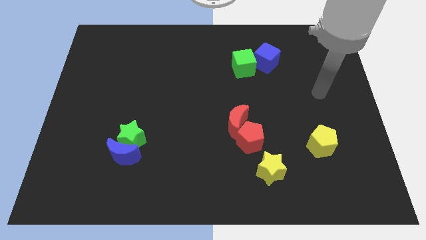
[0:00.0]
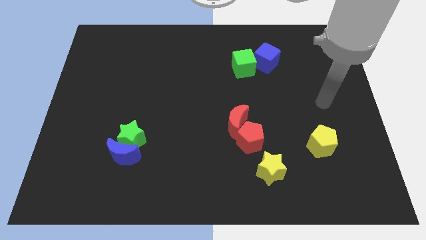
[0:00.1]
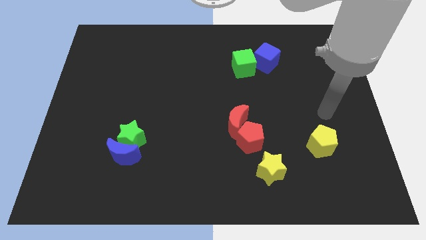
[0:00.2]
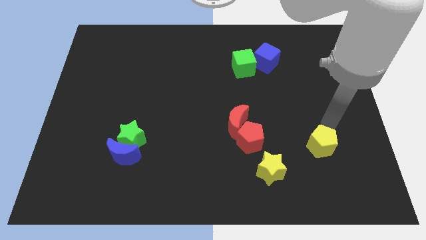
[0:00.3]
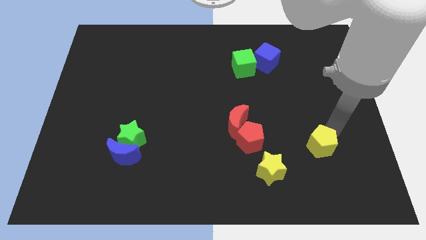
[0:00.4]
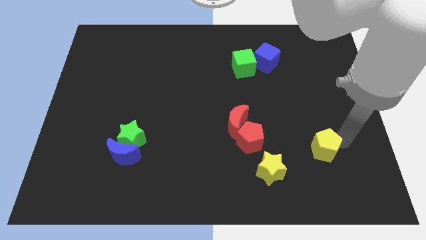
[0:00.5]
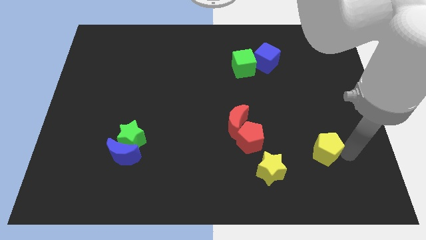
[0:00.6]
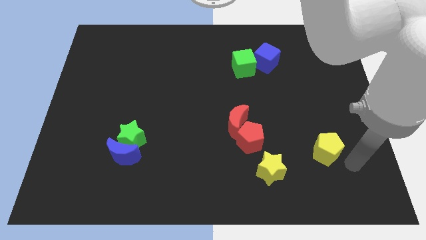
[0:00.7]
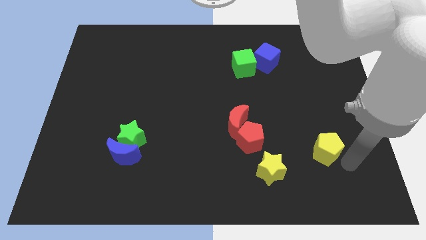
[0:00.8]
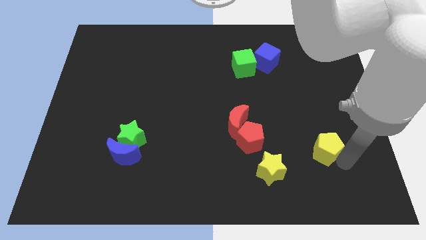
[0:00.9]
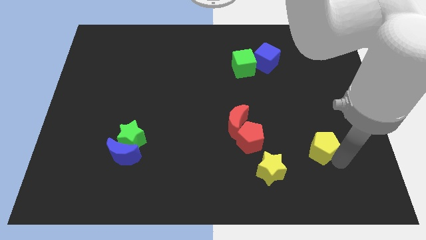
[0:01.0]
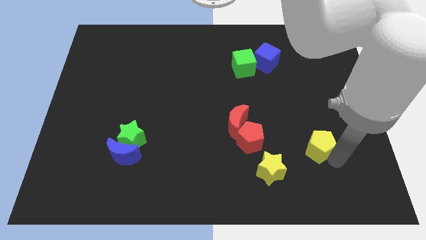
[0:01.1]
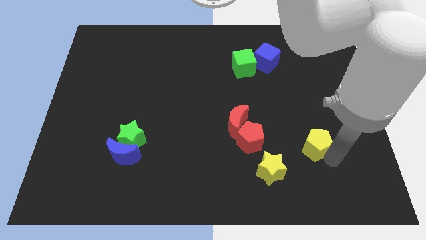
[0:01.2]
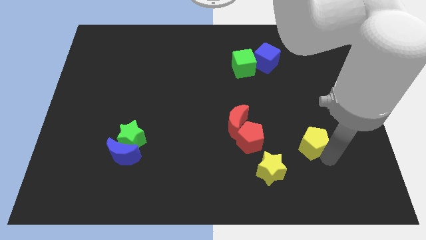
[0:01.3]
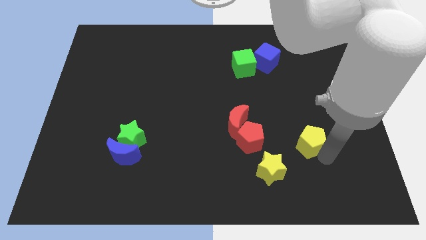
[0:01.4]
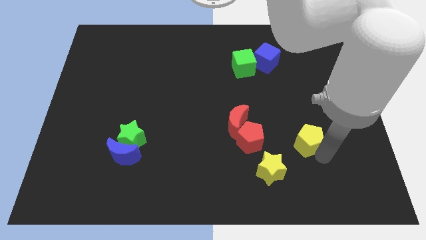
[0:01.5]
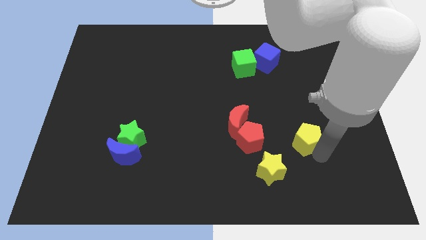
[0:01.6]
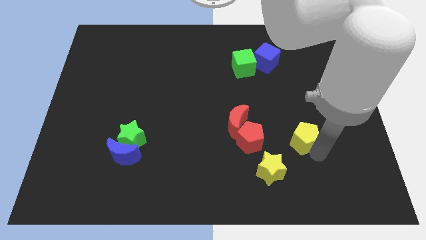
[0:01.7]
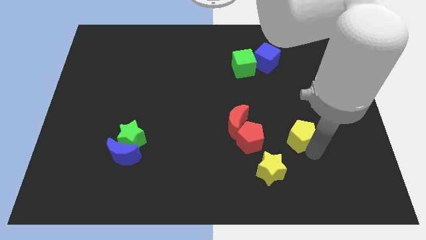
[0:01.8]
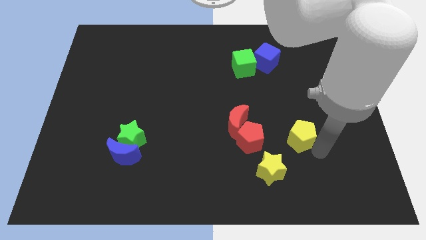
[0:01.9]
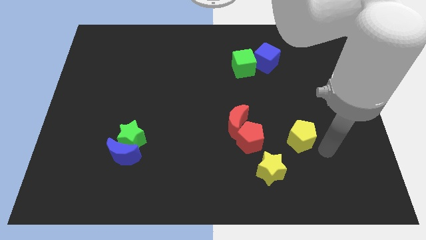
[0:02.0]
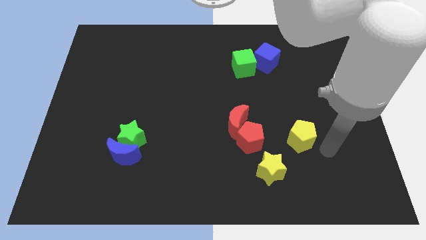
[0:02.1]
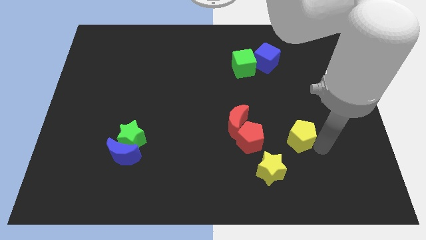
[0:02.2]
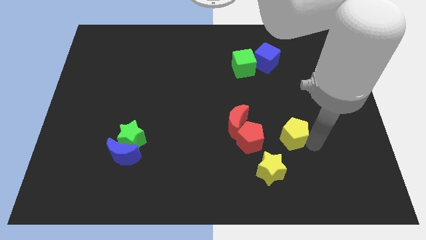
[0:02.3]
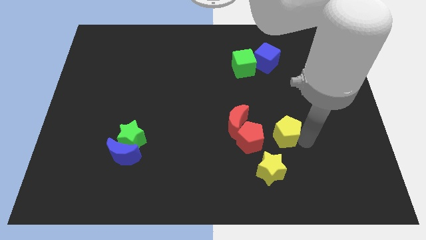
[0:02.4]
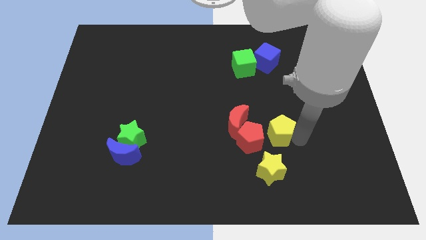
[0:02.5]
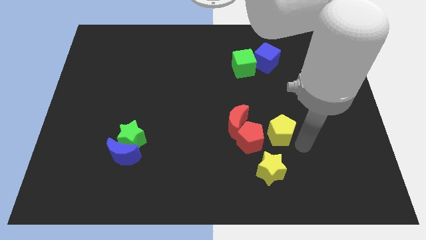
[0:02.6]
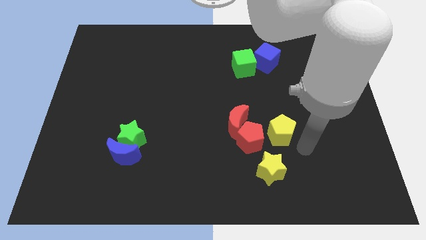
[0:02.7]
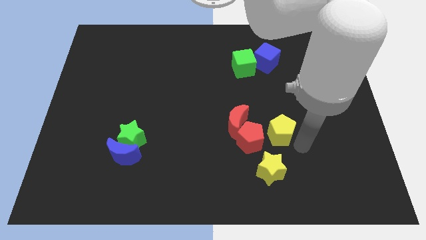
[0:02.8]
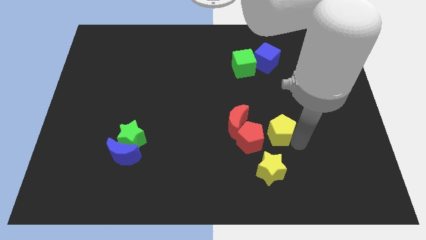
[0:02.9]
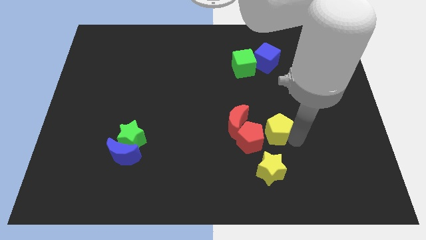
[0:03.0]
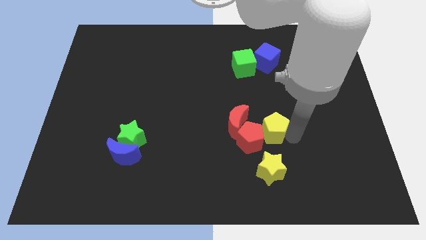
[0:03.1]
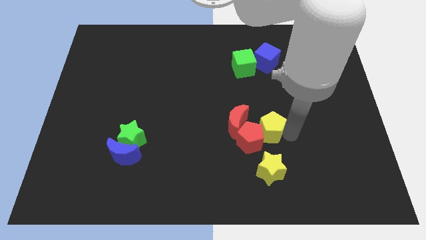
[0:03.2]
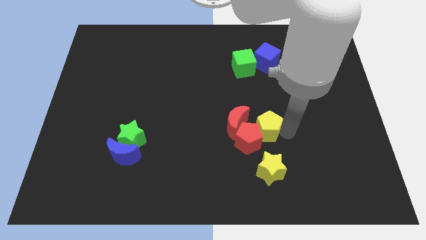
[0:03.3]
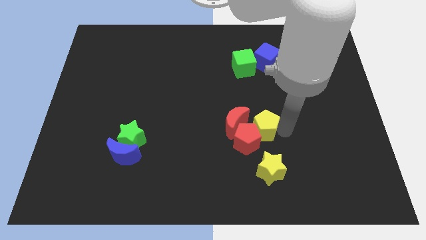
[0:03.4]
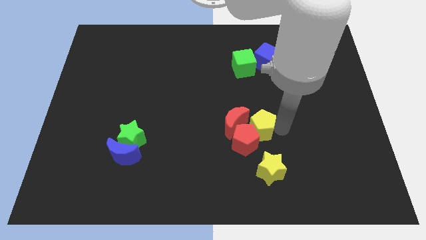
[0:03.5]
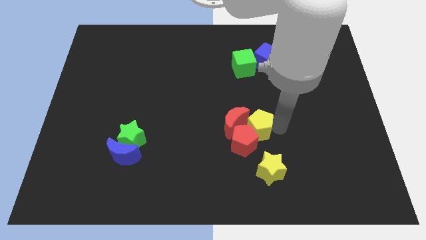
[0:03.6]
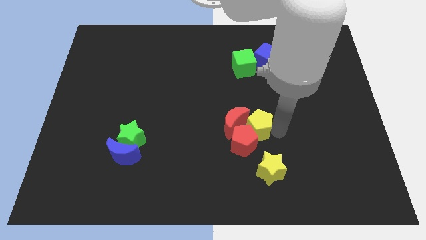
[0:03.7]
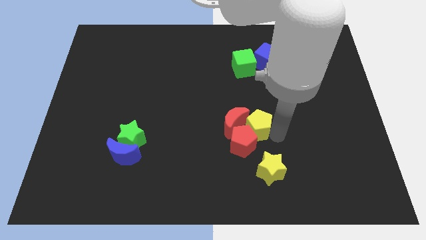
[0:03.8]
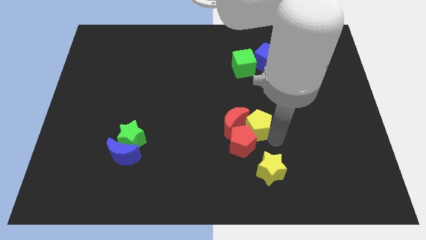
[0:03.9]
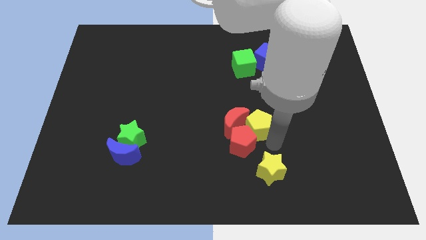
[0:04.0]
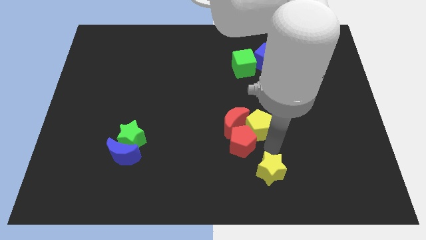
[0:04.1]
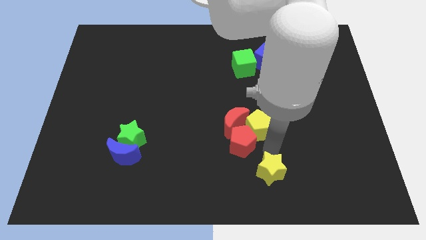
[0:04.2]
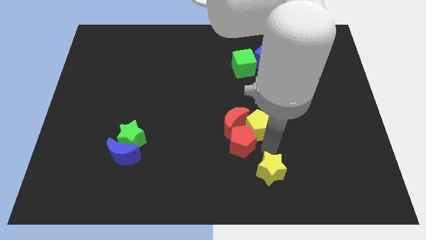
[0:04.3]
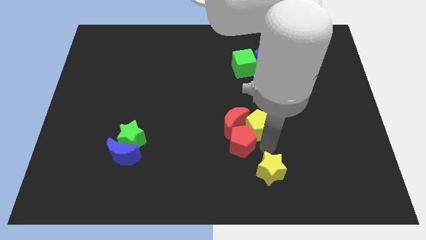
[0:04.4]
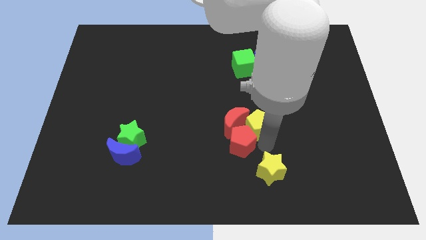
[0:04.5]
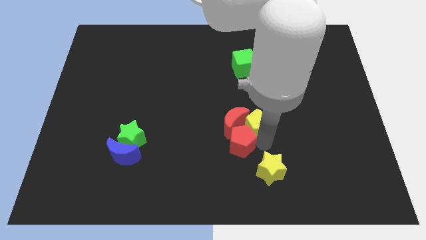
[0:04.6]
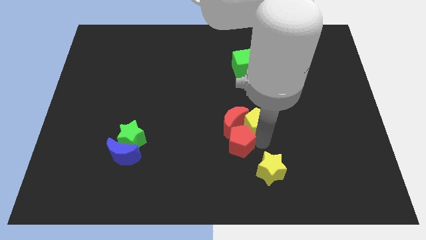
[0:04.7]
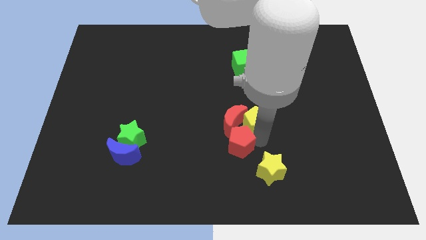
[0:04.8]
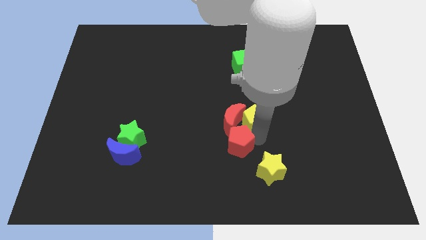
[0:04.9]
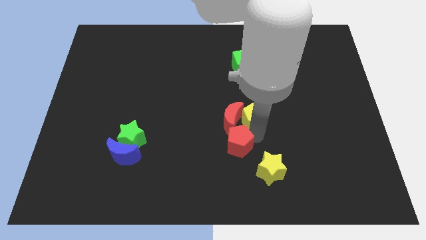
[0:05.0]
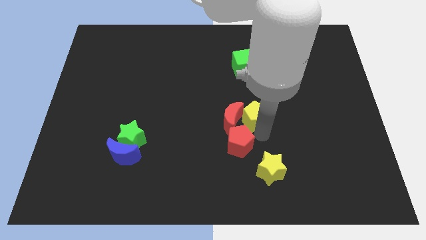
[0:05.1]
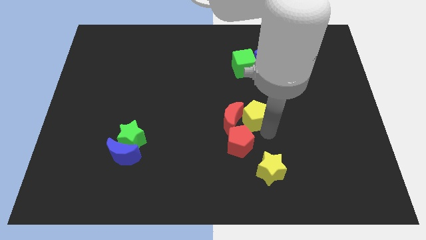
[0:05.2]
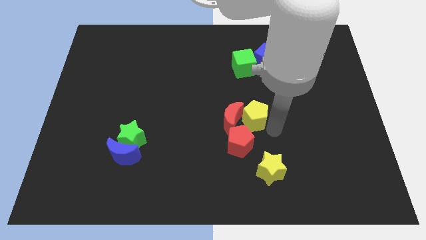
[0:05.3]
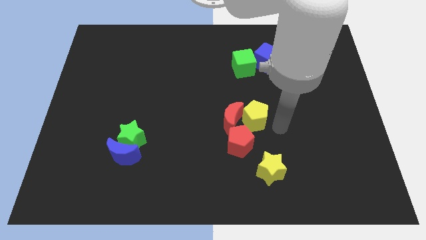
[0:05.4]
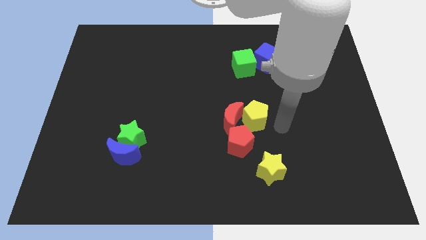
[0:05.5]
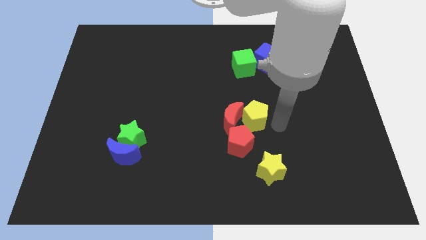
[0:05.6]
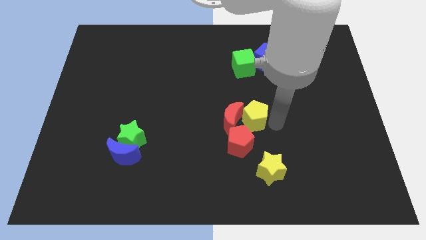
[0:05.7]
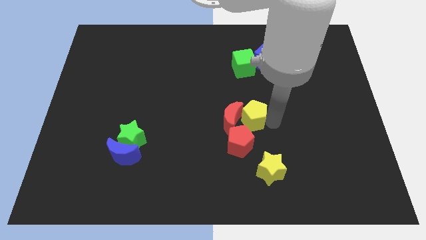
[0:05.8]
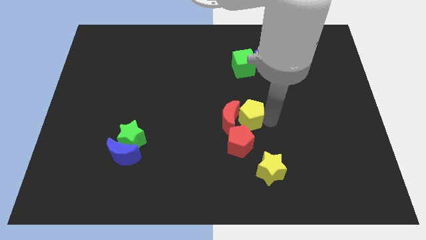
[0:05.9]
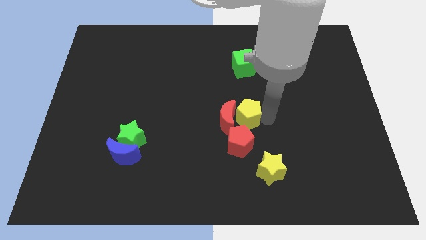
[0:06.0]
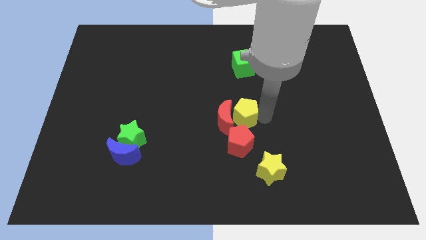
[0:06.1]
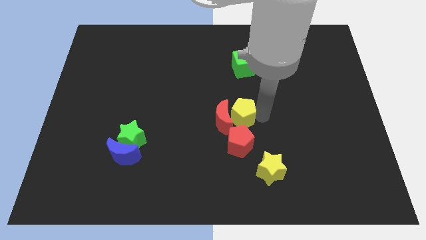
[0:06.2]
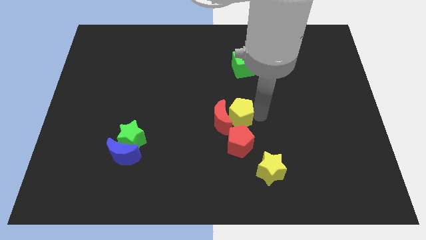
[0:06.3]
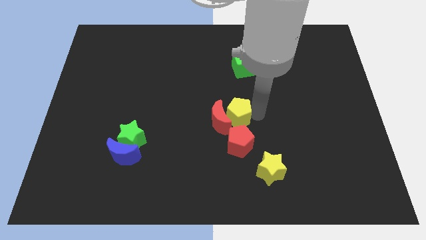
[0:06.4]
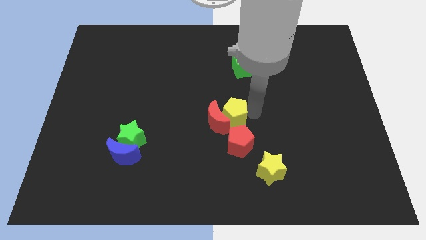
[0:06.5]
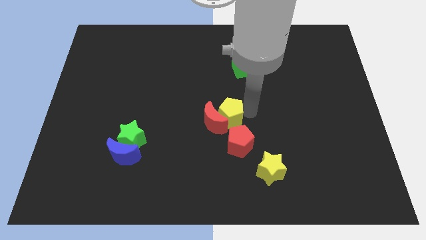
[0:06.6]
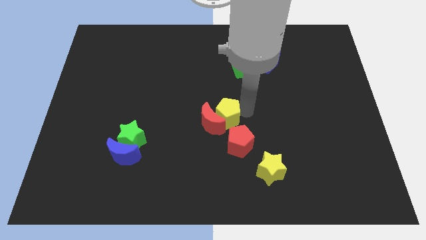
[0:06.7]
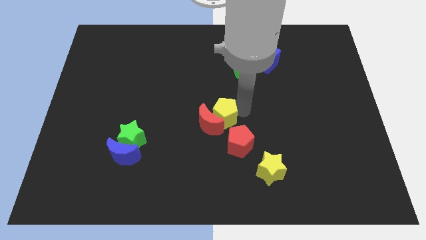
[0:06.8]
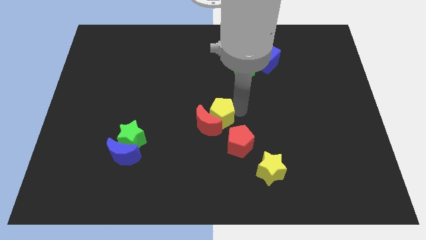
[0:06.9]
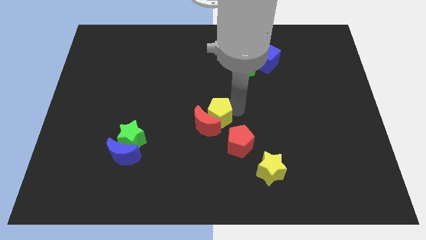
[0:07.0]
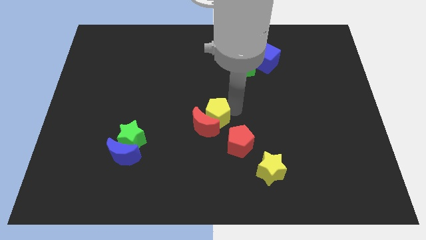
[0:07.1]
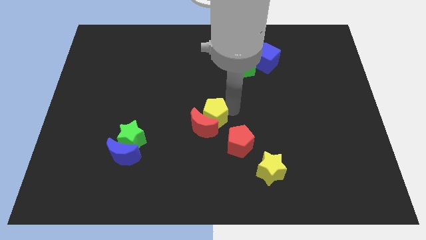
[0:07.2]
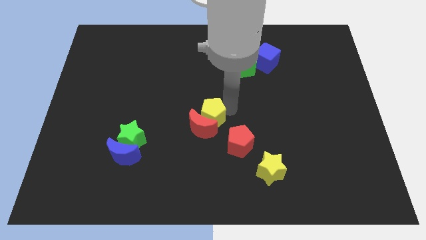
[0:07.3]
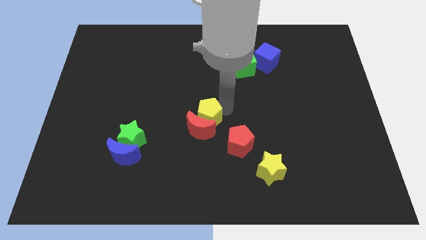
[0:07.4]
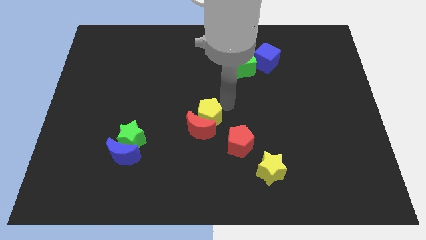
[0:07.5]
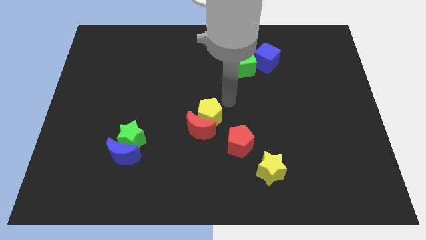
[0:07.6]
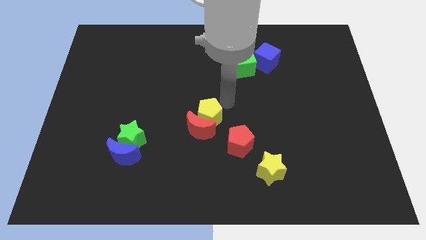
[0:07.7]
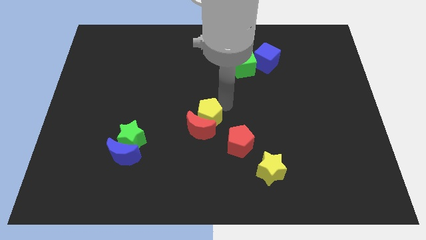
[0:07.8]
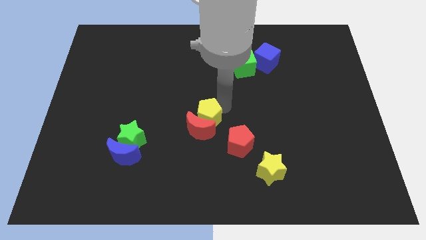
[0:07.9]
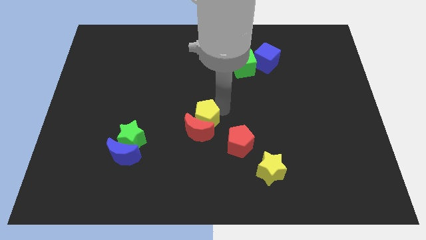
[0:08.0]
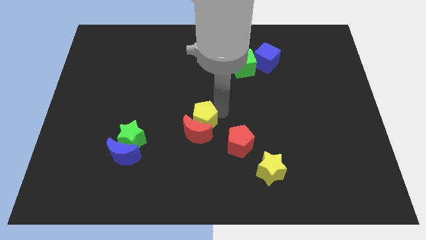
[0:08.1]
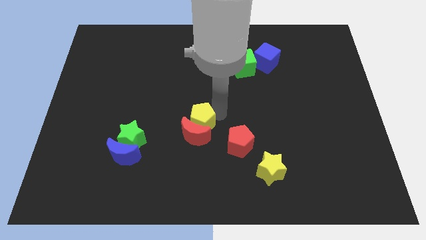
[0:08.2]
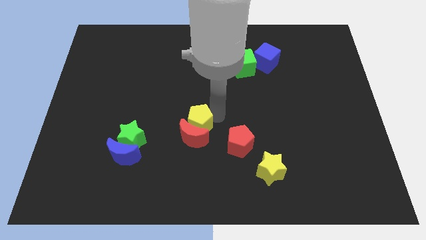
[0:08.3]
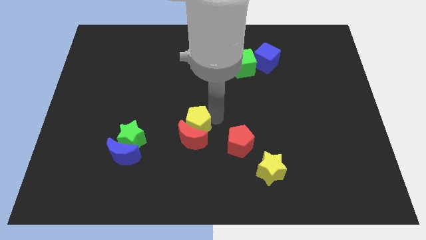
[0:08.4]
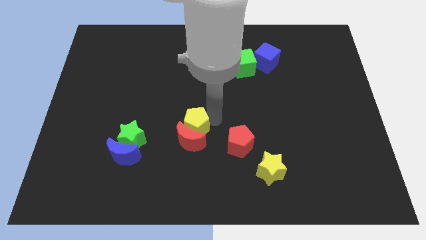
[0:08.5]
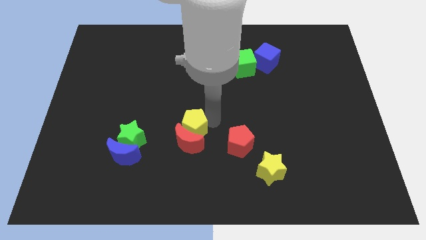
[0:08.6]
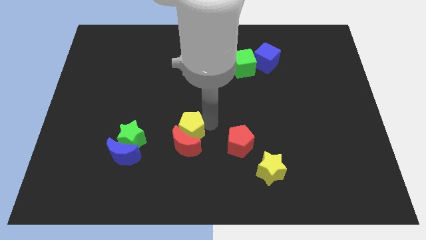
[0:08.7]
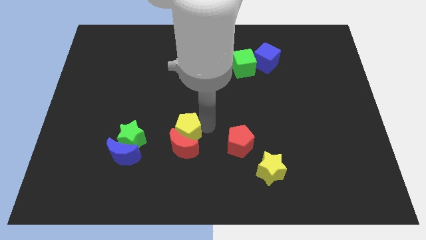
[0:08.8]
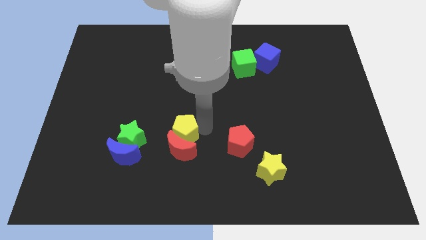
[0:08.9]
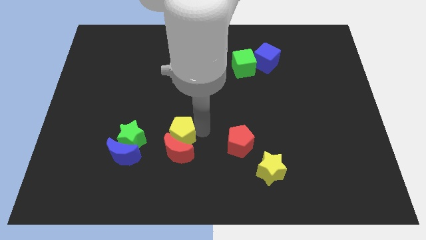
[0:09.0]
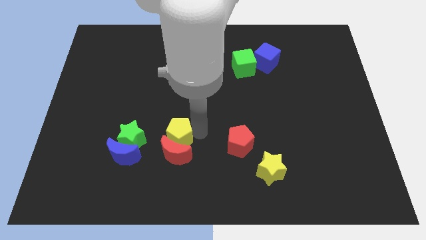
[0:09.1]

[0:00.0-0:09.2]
move the yellow pentagon to the right side of the blue moon
